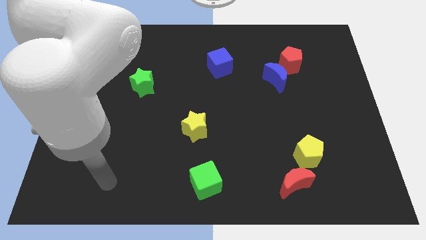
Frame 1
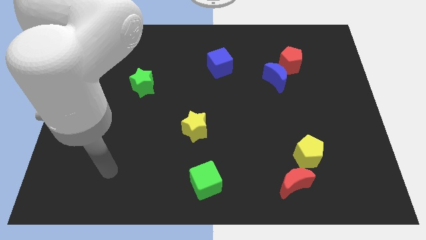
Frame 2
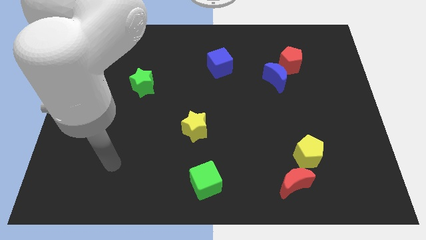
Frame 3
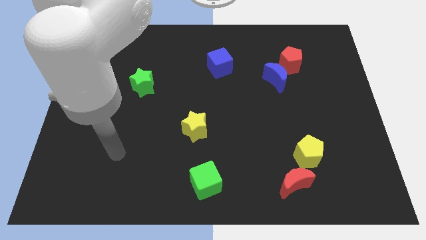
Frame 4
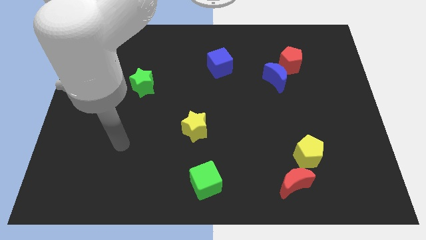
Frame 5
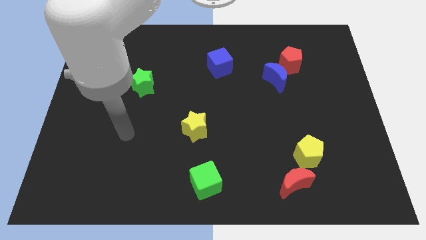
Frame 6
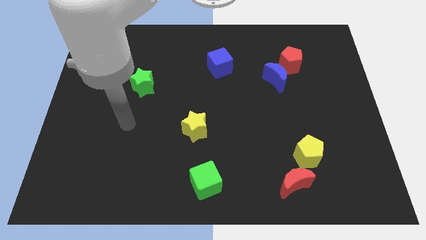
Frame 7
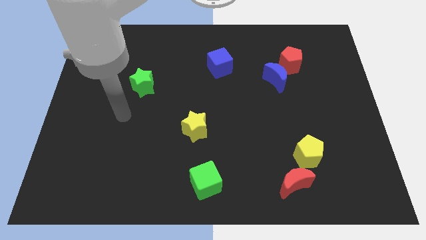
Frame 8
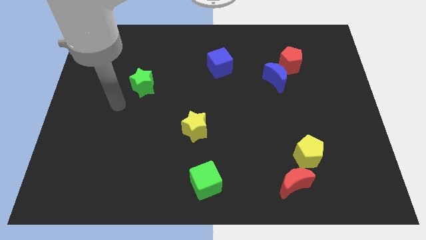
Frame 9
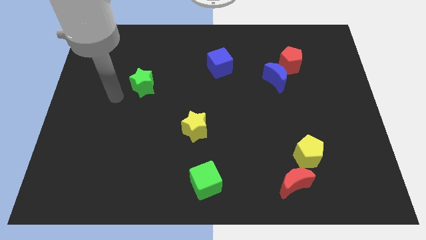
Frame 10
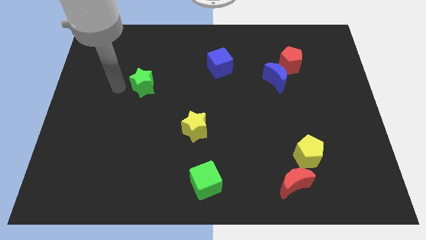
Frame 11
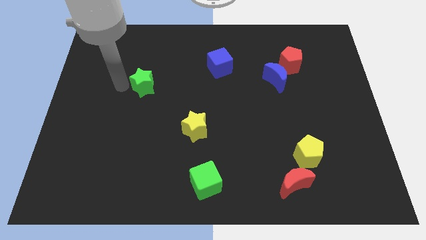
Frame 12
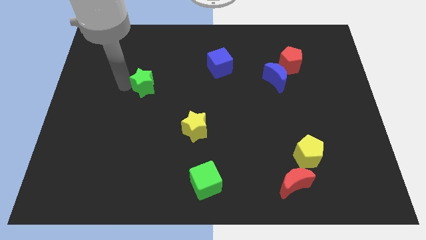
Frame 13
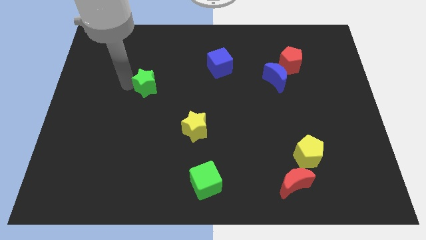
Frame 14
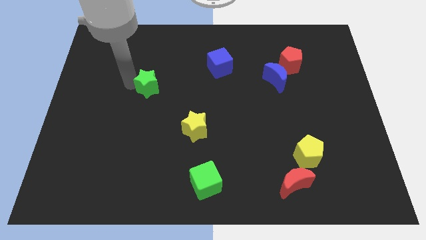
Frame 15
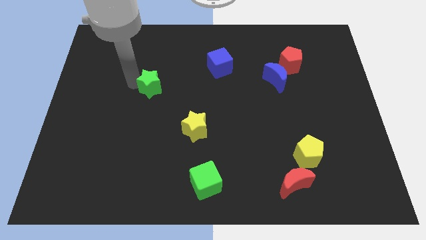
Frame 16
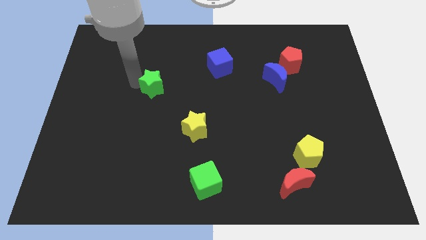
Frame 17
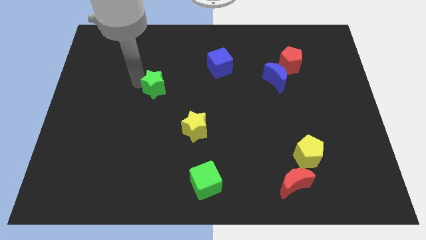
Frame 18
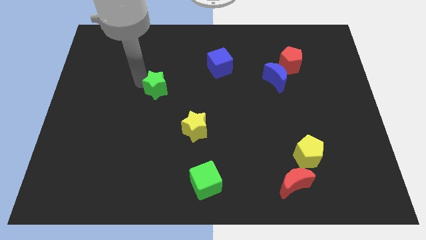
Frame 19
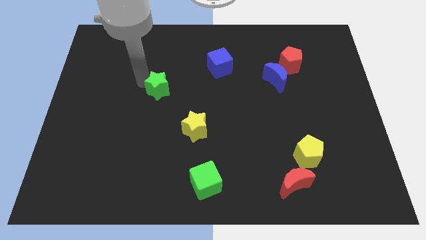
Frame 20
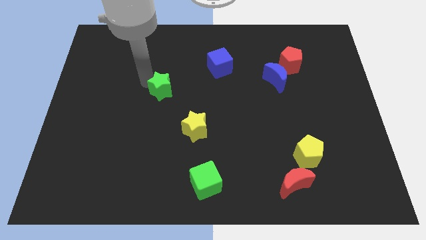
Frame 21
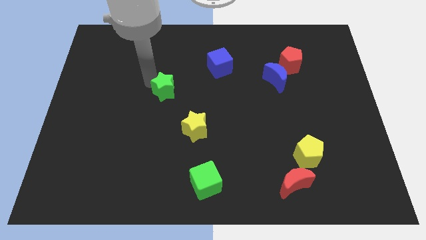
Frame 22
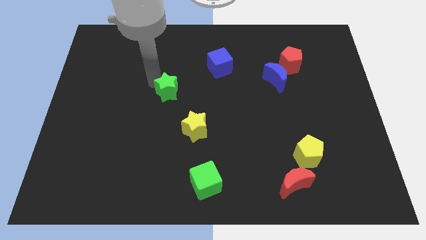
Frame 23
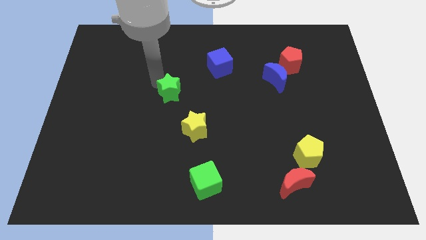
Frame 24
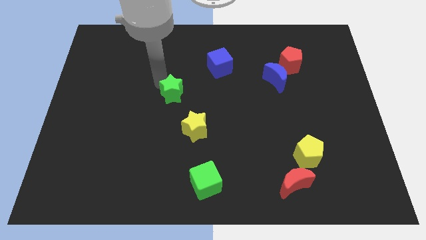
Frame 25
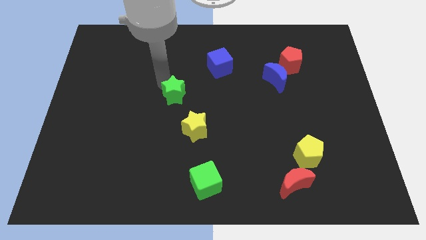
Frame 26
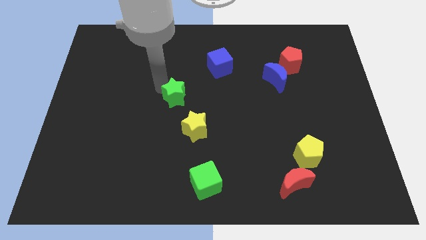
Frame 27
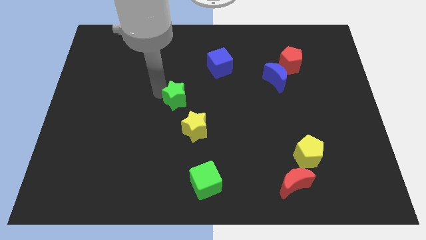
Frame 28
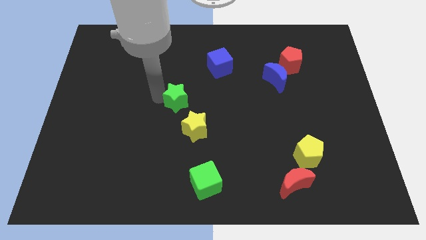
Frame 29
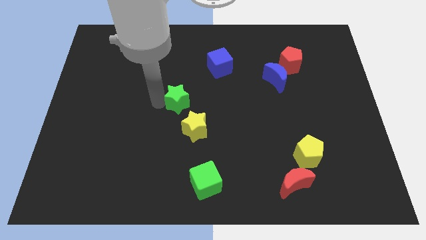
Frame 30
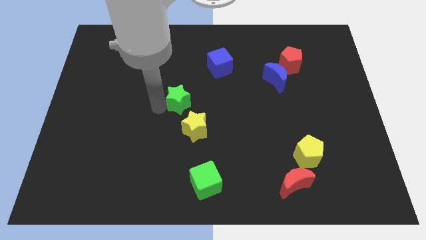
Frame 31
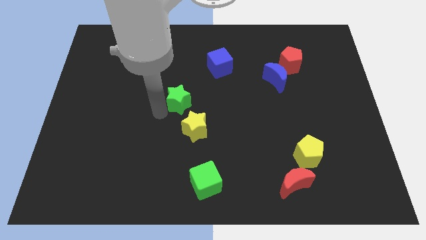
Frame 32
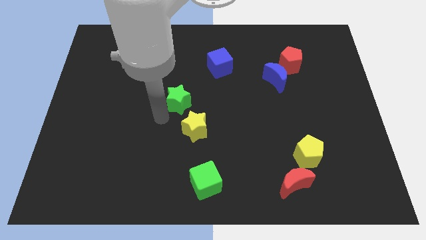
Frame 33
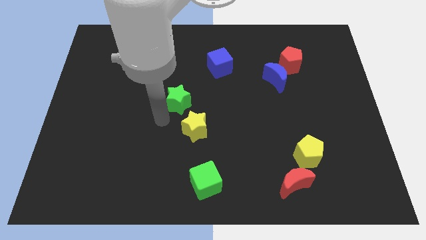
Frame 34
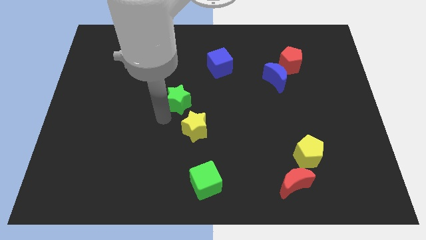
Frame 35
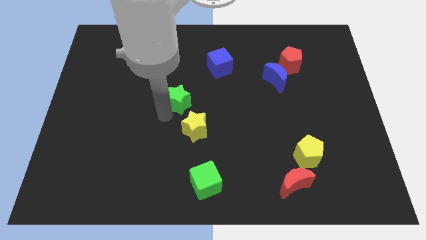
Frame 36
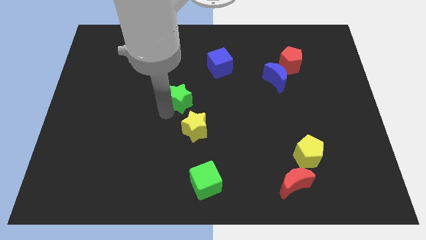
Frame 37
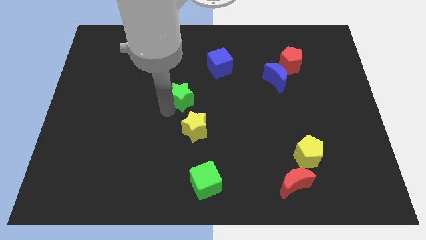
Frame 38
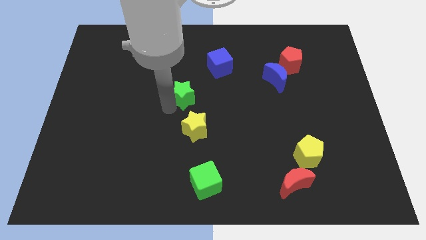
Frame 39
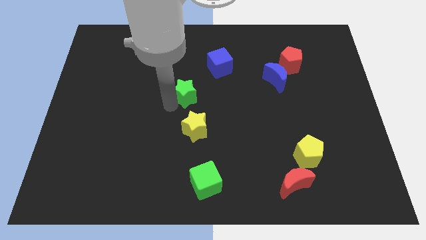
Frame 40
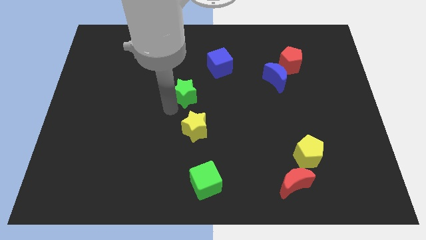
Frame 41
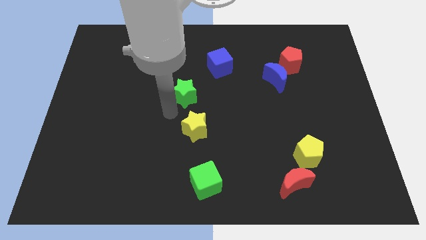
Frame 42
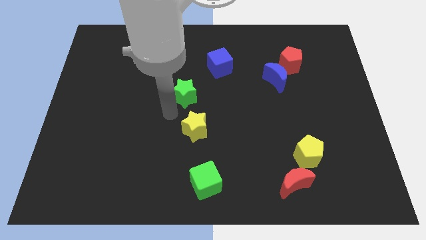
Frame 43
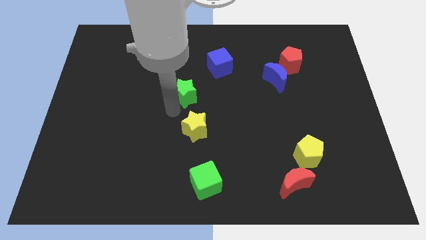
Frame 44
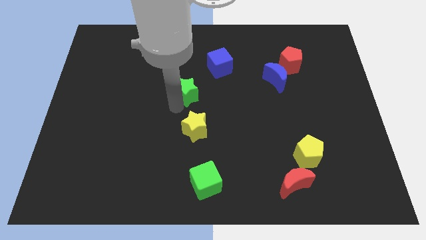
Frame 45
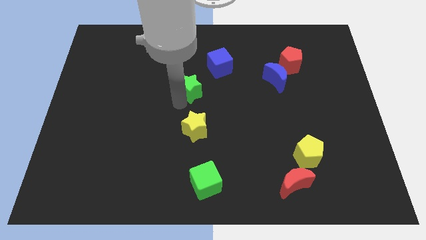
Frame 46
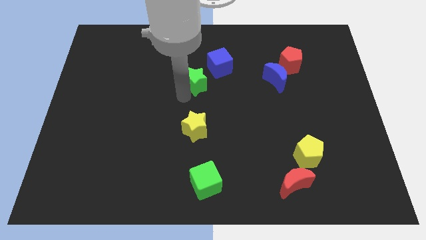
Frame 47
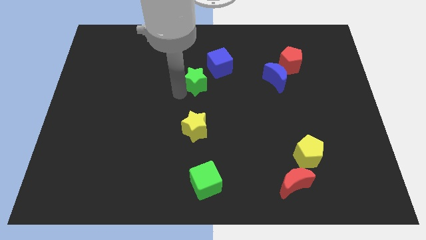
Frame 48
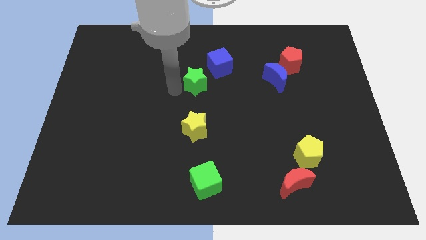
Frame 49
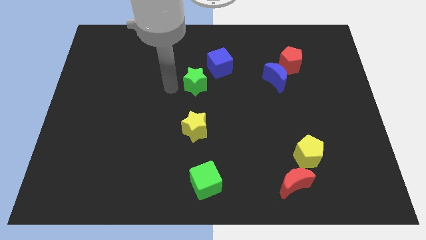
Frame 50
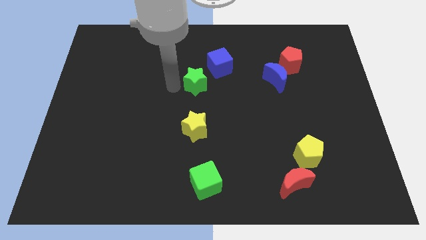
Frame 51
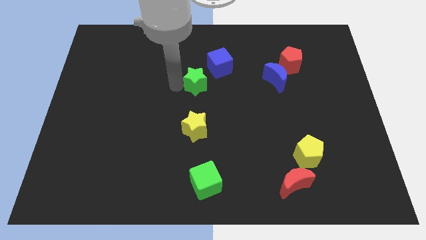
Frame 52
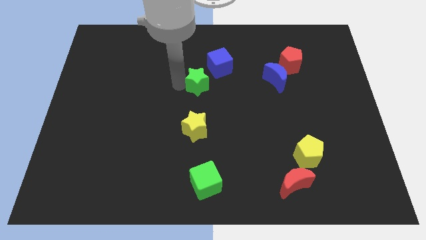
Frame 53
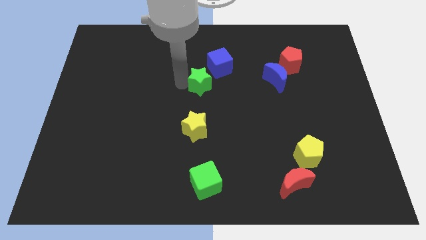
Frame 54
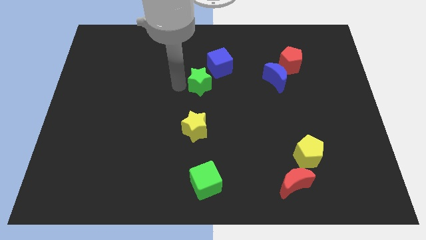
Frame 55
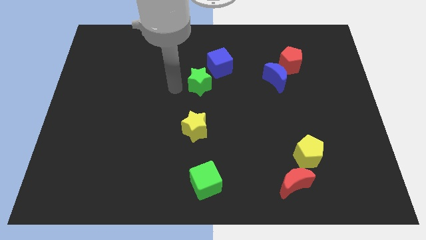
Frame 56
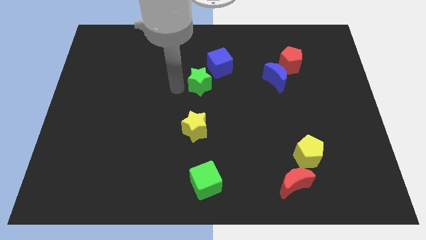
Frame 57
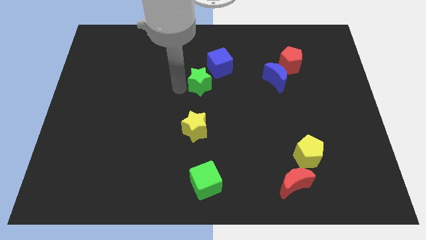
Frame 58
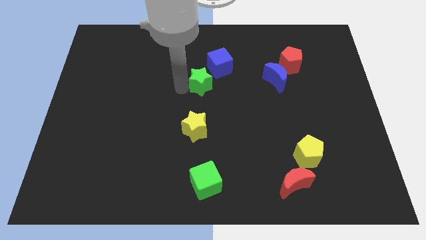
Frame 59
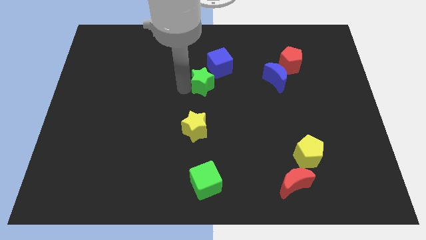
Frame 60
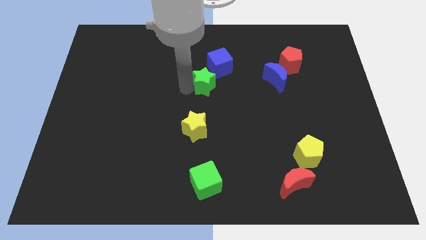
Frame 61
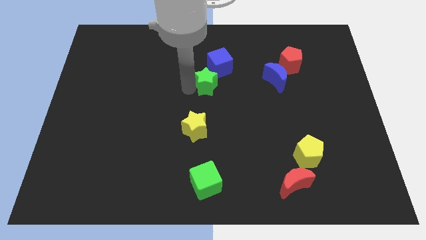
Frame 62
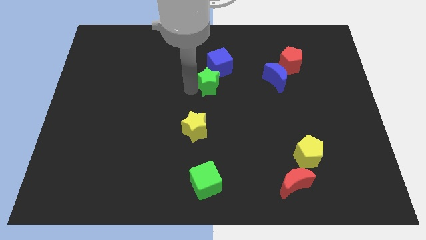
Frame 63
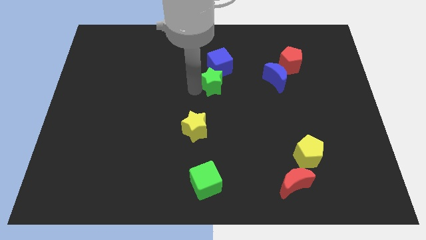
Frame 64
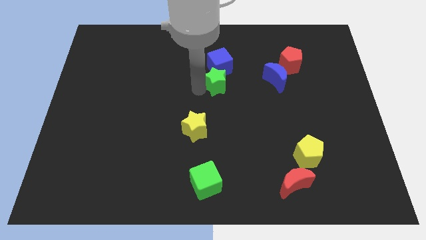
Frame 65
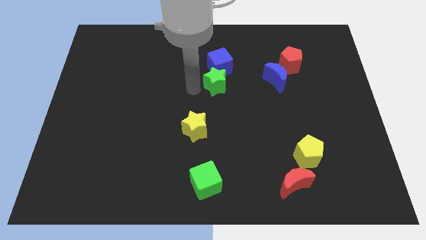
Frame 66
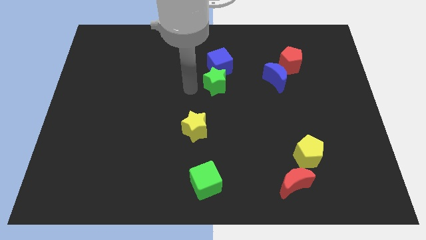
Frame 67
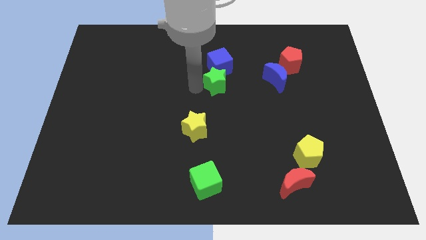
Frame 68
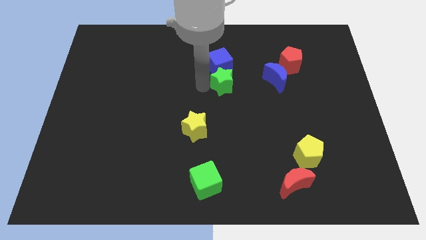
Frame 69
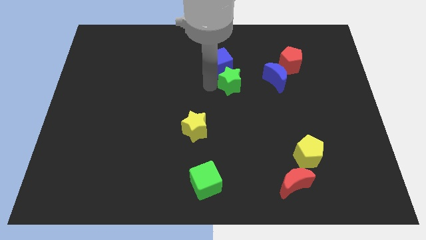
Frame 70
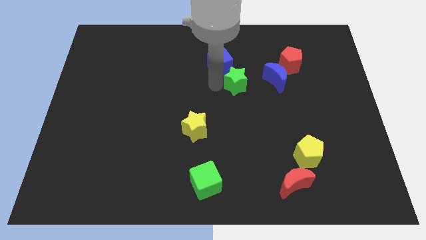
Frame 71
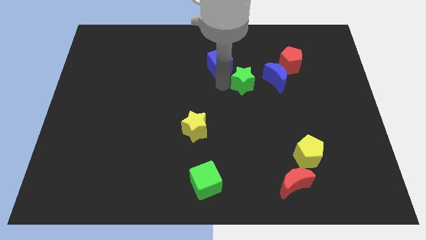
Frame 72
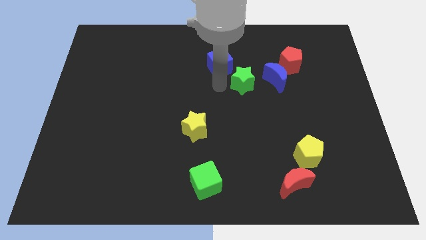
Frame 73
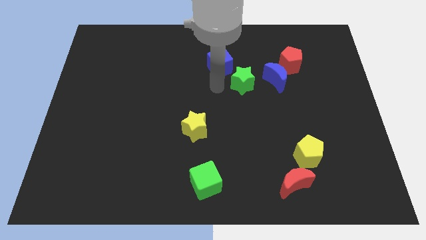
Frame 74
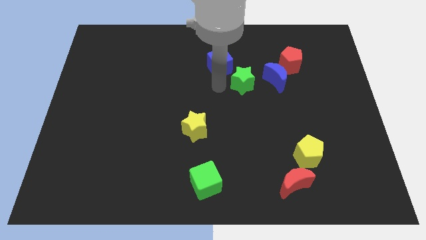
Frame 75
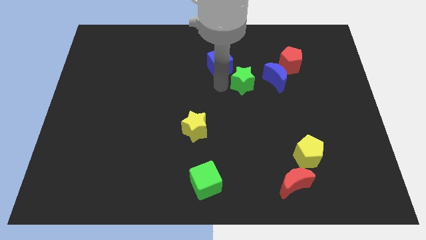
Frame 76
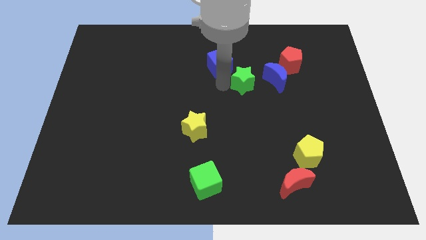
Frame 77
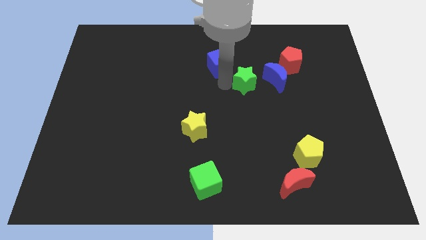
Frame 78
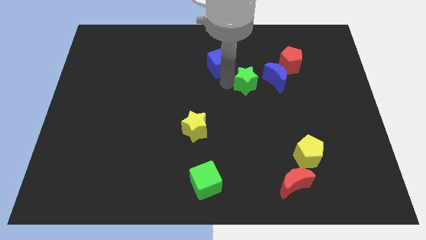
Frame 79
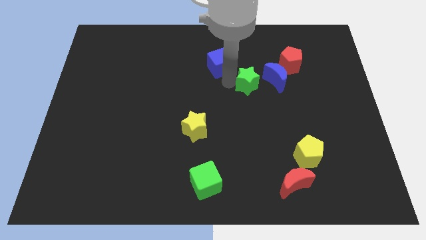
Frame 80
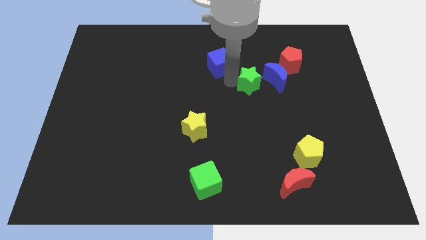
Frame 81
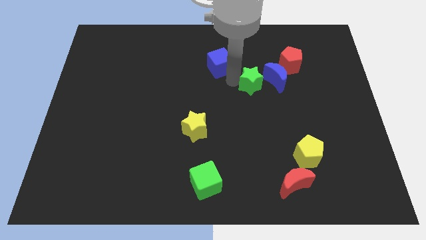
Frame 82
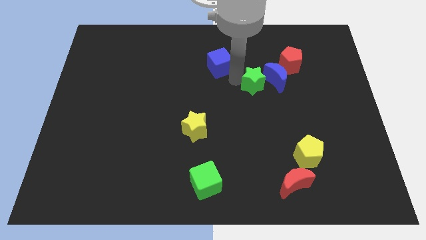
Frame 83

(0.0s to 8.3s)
push the green star next to the blue moon
